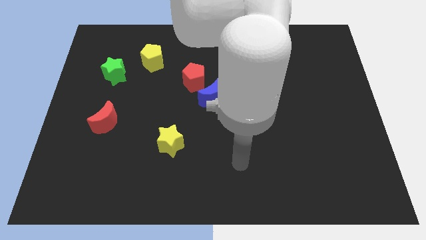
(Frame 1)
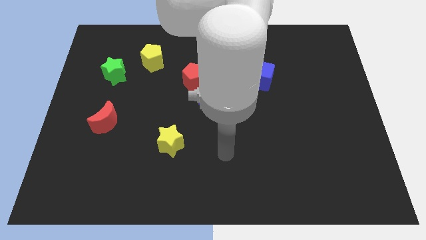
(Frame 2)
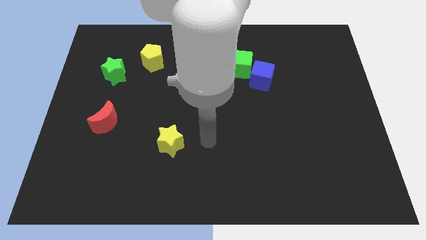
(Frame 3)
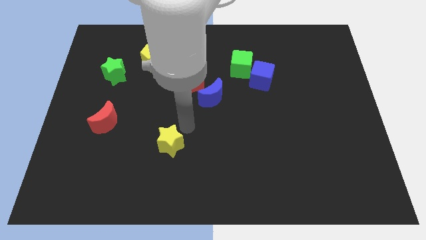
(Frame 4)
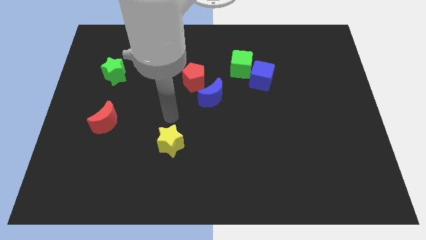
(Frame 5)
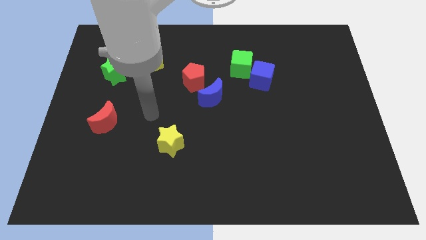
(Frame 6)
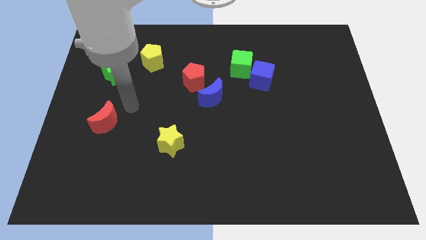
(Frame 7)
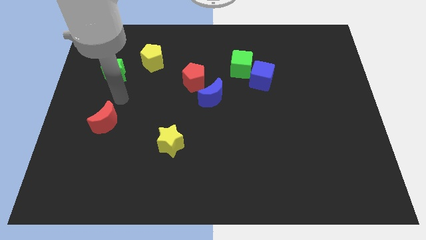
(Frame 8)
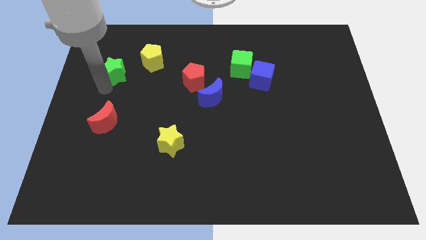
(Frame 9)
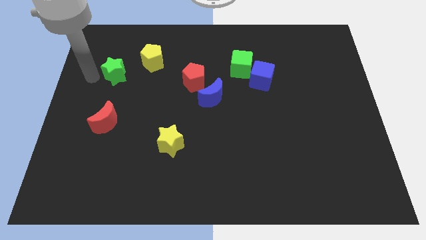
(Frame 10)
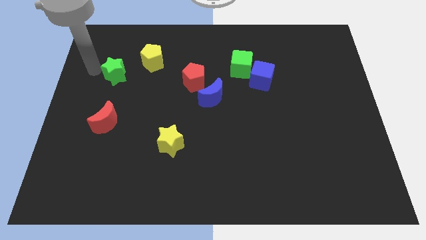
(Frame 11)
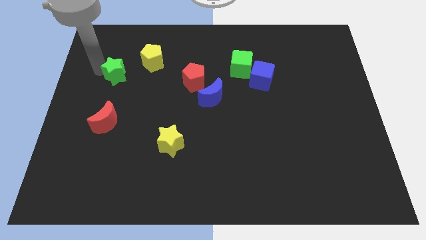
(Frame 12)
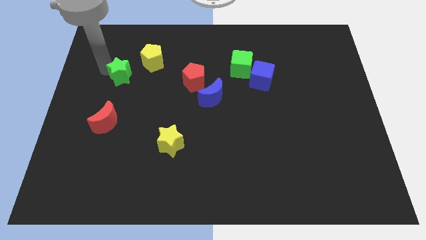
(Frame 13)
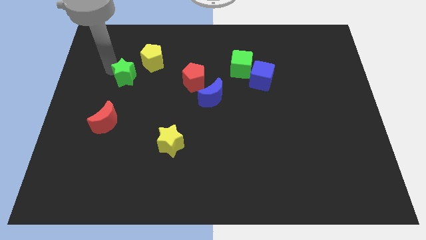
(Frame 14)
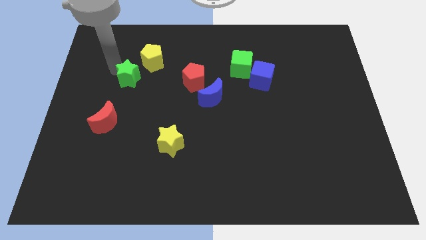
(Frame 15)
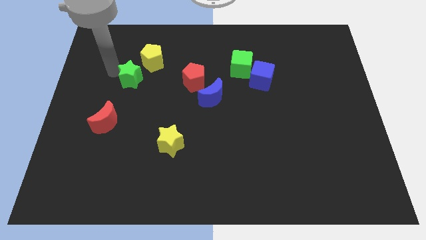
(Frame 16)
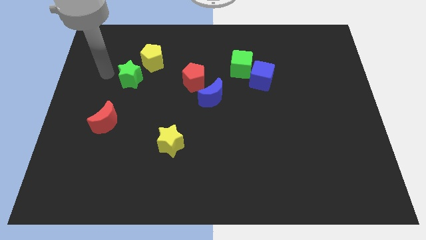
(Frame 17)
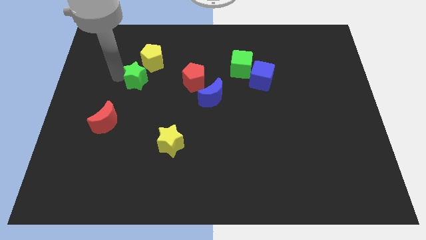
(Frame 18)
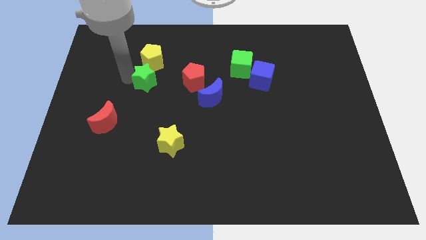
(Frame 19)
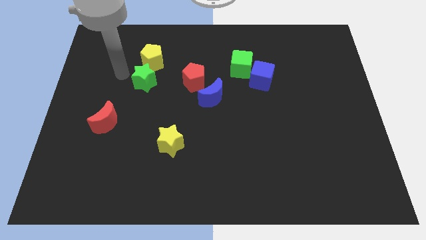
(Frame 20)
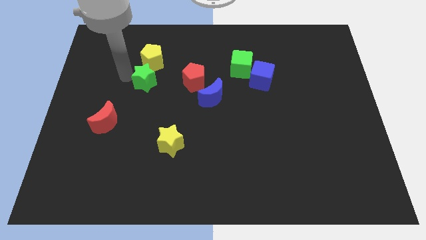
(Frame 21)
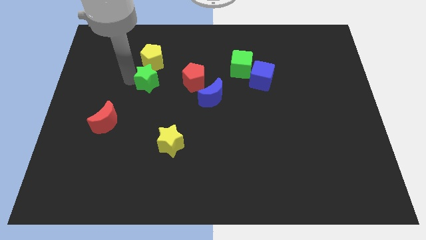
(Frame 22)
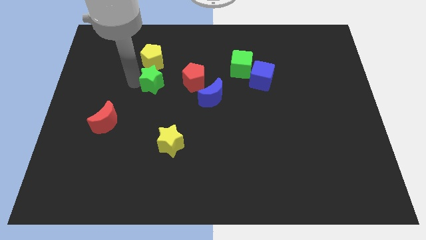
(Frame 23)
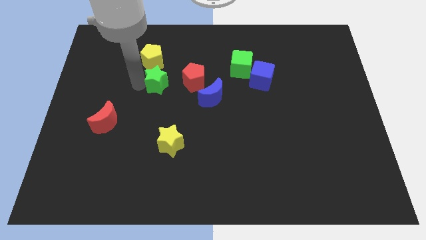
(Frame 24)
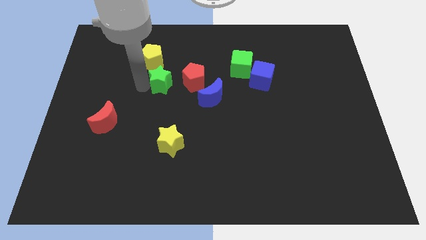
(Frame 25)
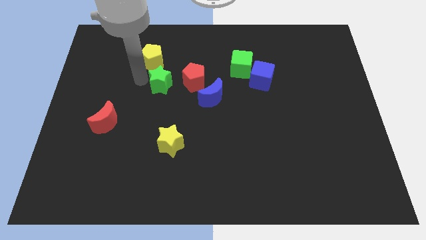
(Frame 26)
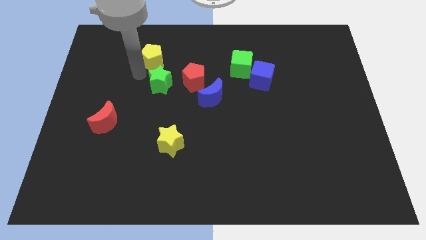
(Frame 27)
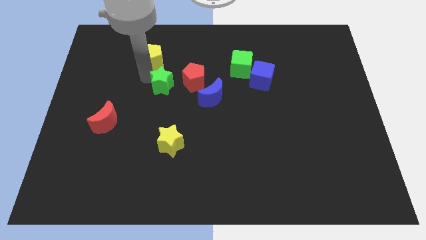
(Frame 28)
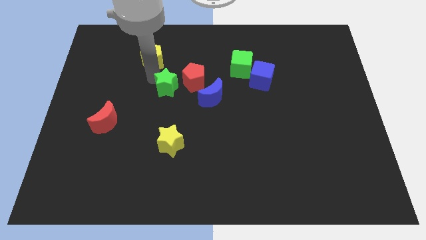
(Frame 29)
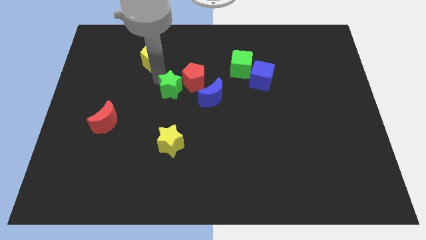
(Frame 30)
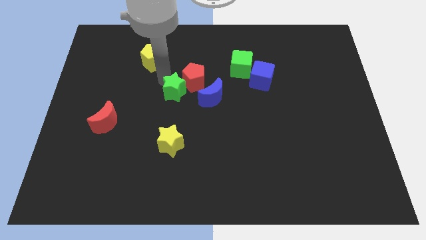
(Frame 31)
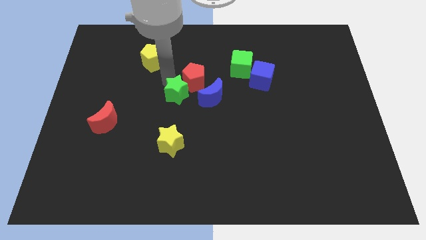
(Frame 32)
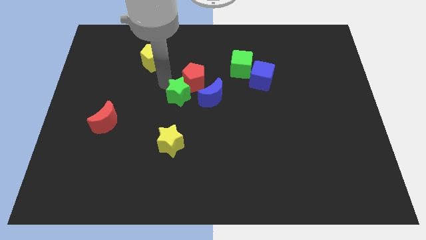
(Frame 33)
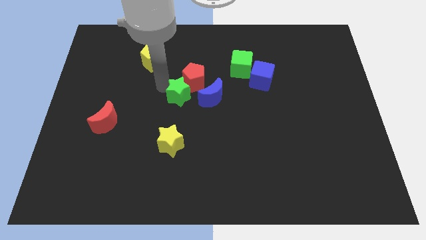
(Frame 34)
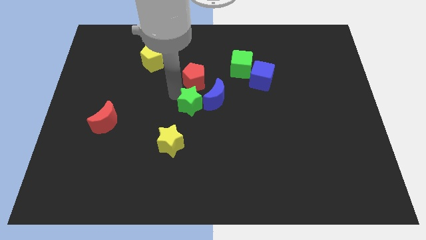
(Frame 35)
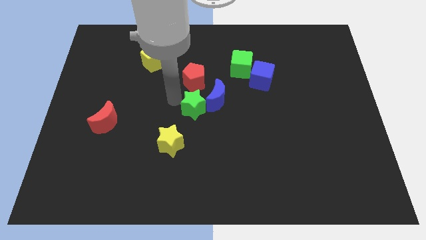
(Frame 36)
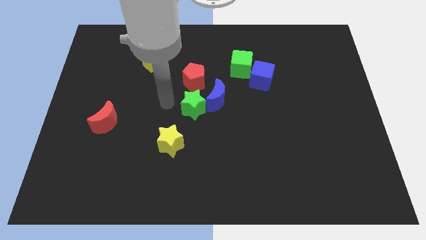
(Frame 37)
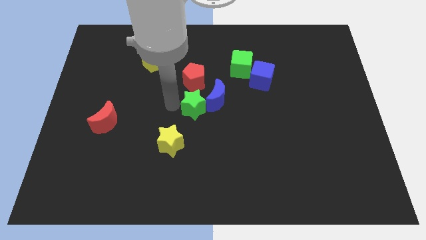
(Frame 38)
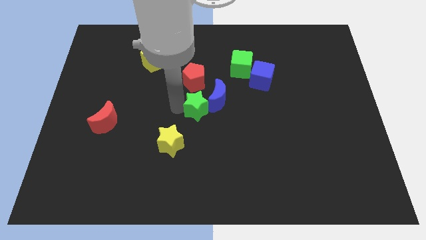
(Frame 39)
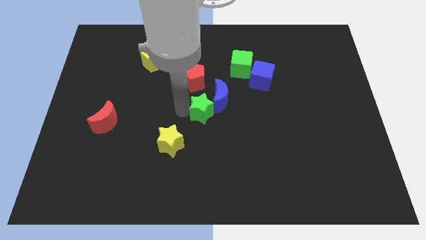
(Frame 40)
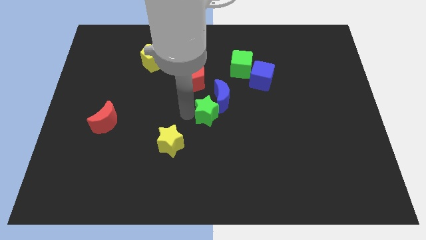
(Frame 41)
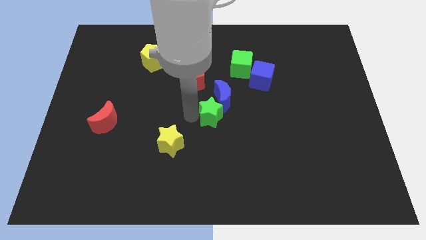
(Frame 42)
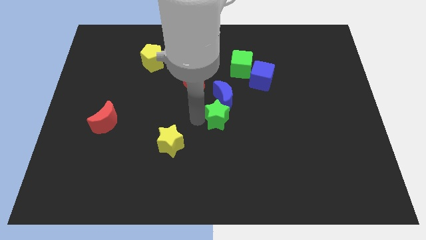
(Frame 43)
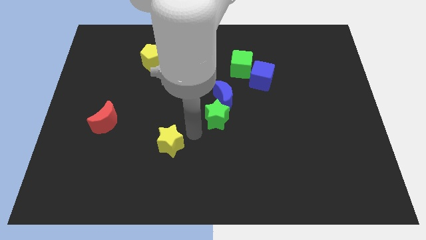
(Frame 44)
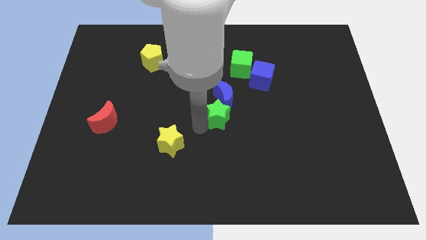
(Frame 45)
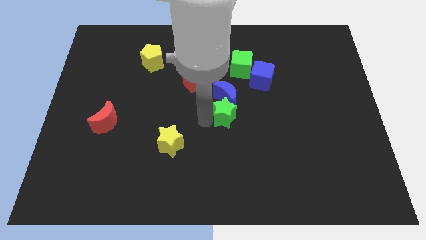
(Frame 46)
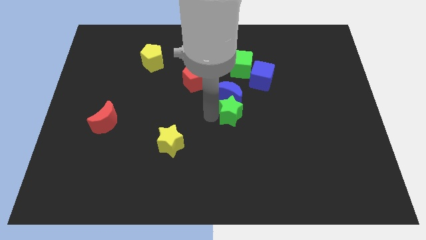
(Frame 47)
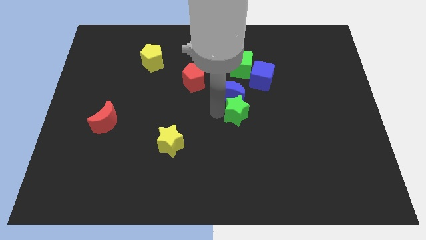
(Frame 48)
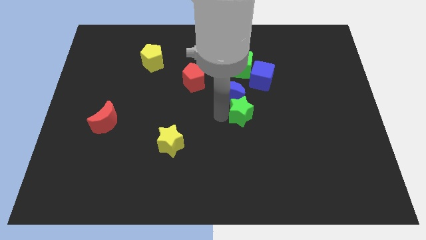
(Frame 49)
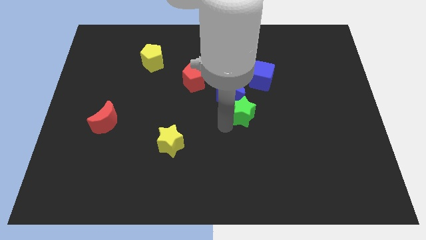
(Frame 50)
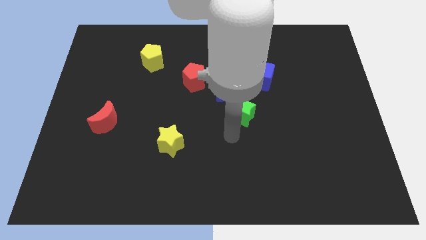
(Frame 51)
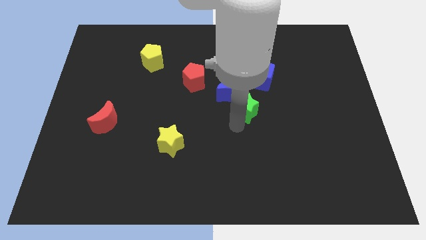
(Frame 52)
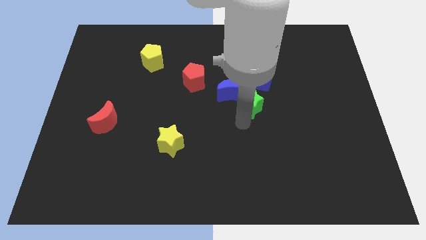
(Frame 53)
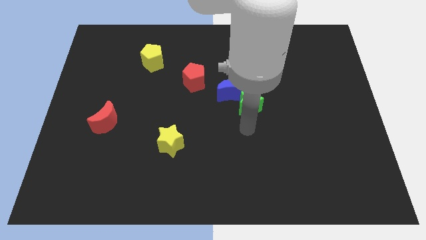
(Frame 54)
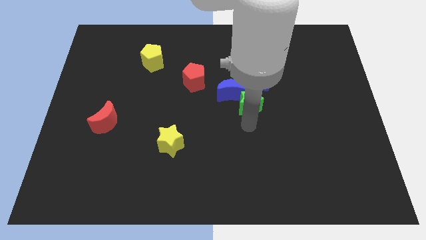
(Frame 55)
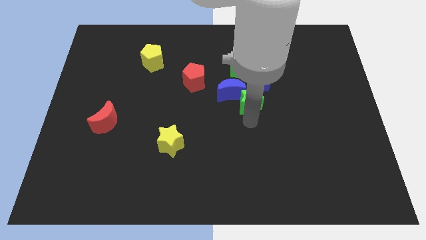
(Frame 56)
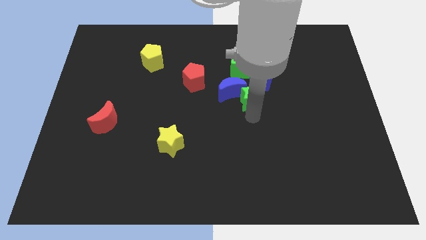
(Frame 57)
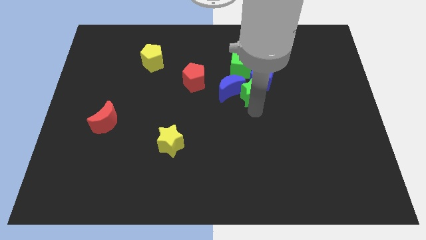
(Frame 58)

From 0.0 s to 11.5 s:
move the green star towards the blue cube

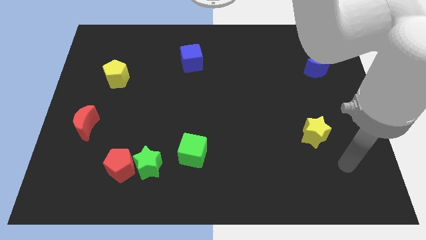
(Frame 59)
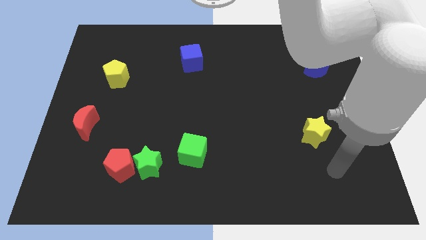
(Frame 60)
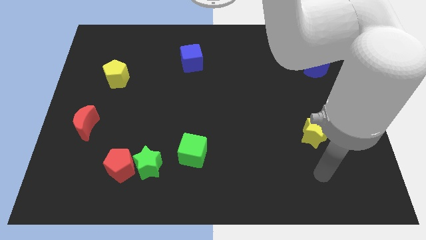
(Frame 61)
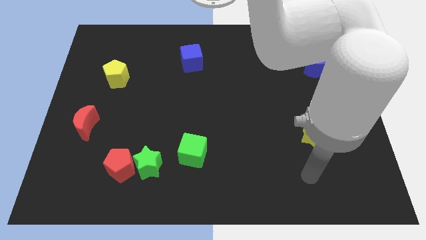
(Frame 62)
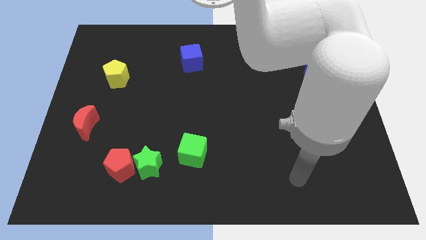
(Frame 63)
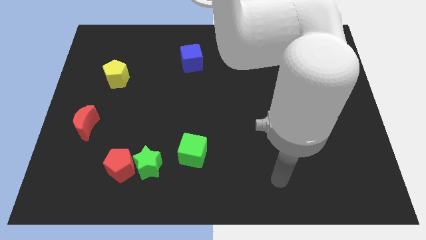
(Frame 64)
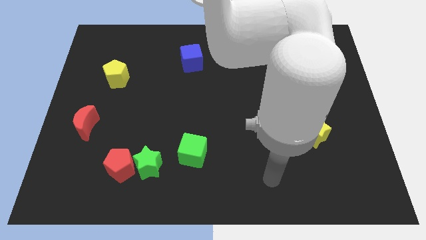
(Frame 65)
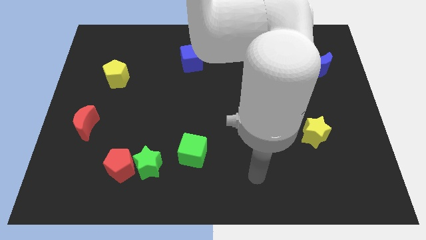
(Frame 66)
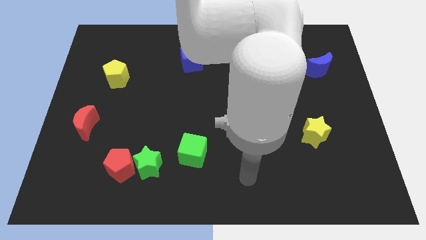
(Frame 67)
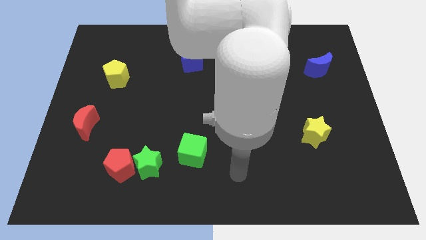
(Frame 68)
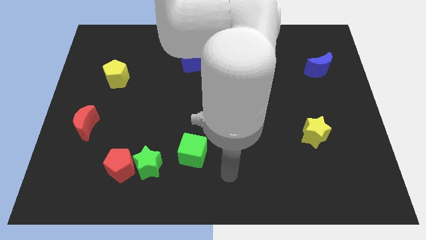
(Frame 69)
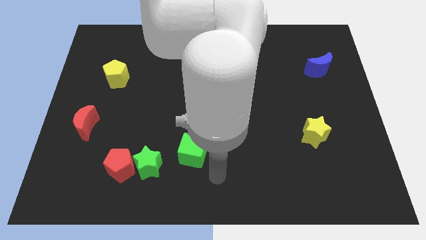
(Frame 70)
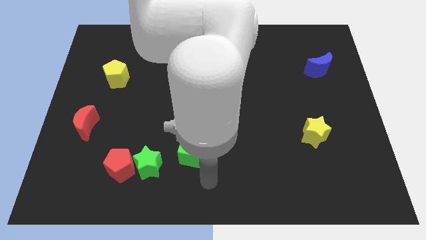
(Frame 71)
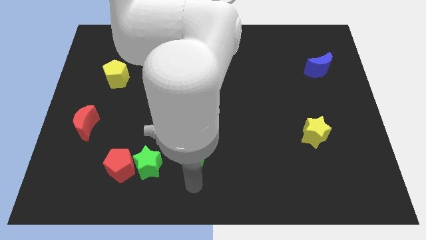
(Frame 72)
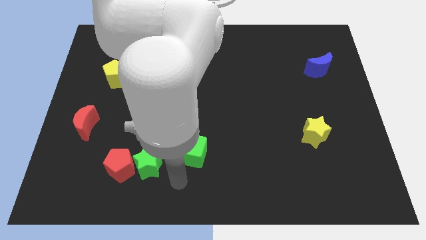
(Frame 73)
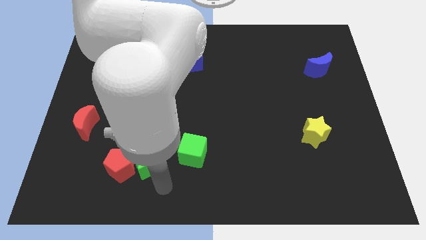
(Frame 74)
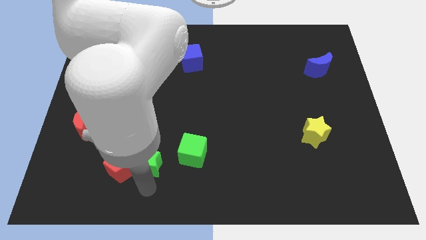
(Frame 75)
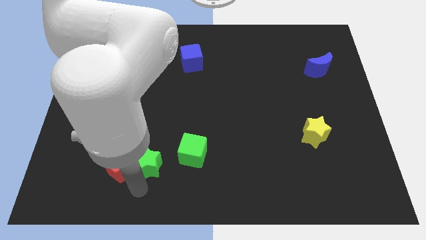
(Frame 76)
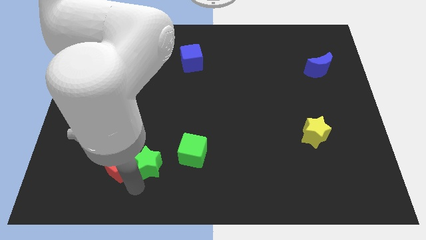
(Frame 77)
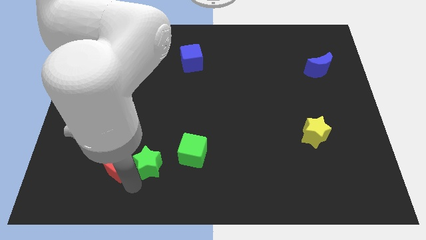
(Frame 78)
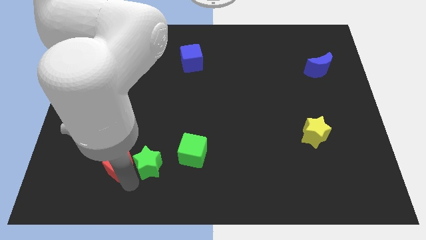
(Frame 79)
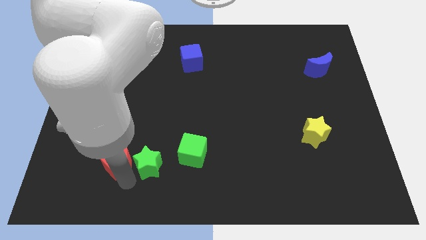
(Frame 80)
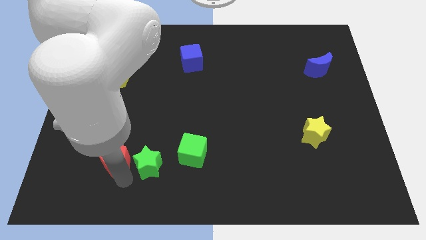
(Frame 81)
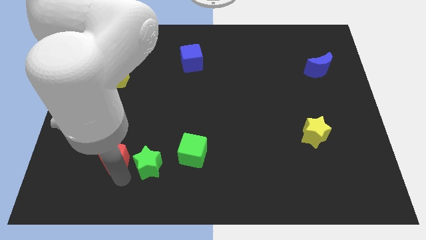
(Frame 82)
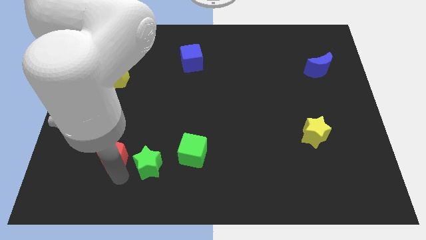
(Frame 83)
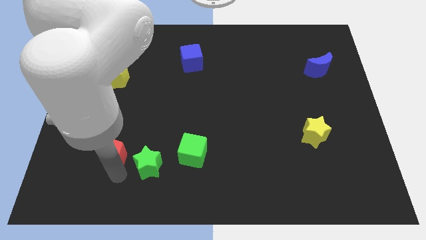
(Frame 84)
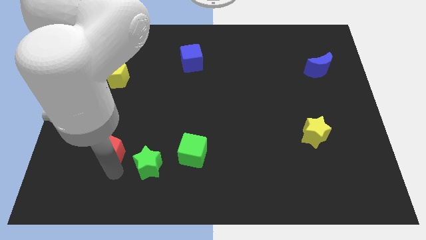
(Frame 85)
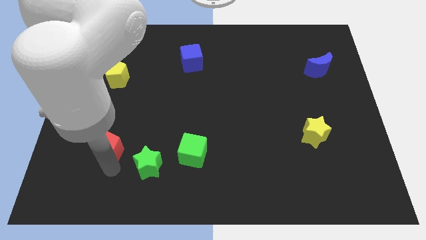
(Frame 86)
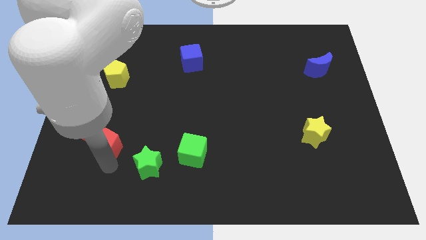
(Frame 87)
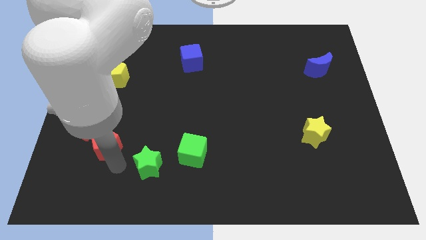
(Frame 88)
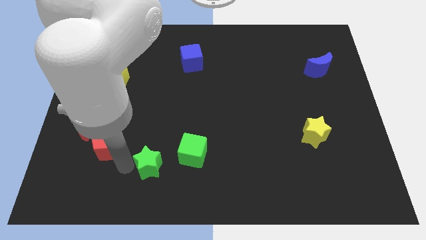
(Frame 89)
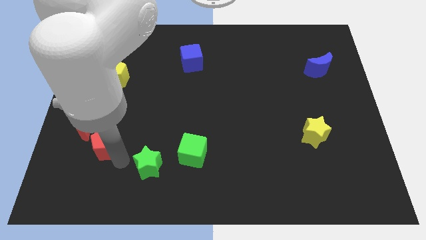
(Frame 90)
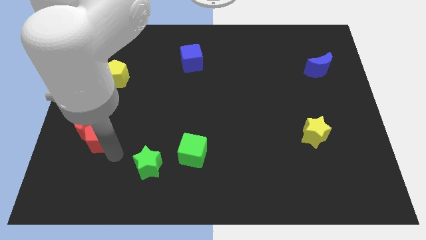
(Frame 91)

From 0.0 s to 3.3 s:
slide the red pentagon towards the red moon
